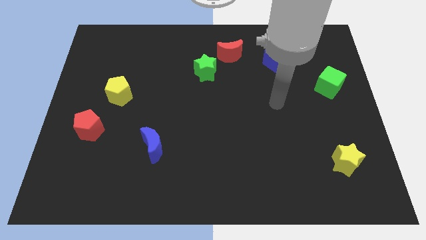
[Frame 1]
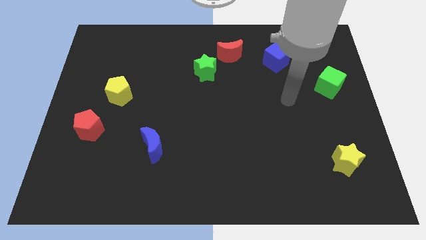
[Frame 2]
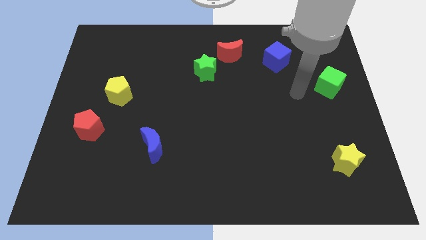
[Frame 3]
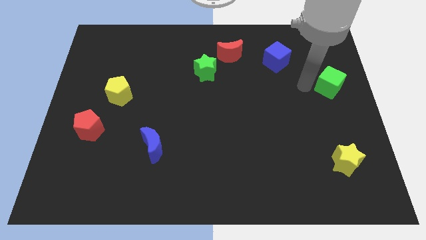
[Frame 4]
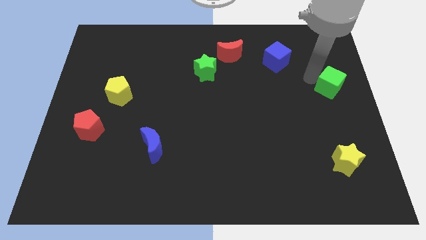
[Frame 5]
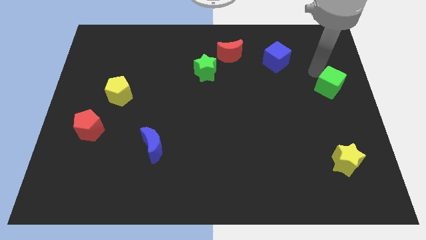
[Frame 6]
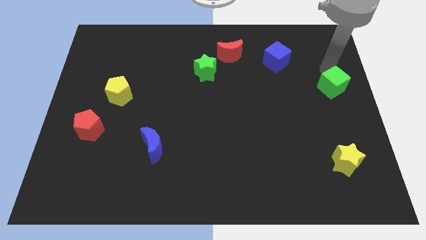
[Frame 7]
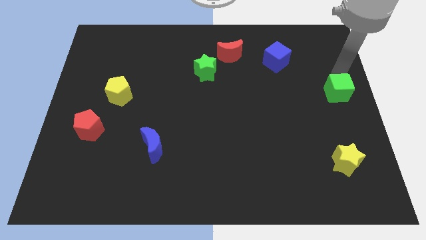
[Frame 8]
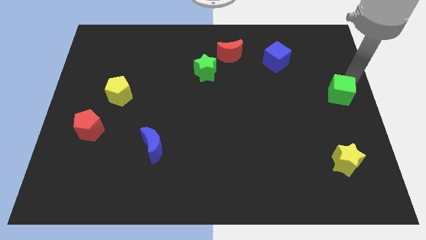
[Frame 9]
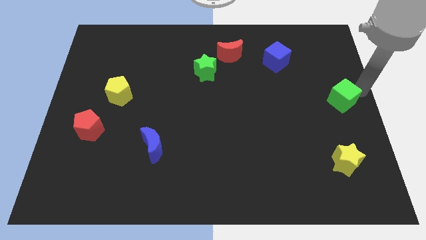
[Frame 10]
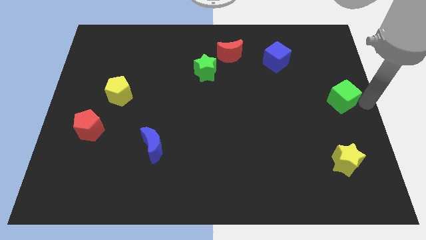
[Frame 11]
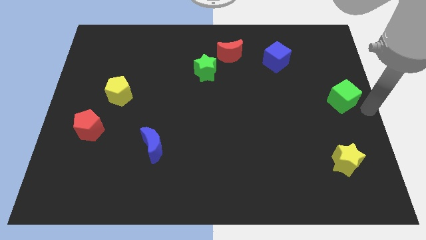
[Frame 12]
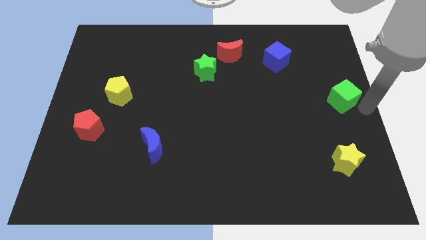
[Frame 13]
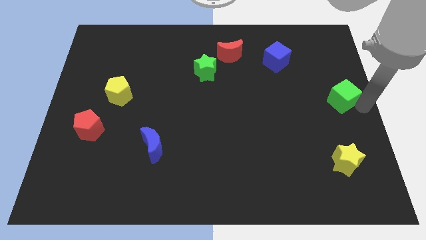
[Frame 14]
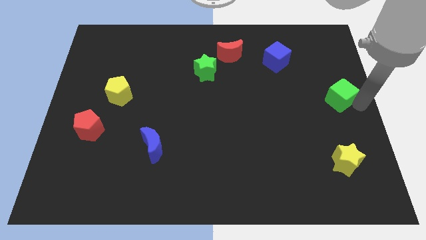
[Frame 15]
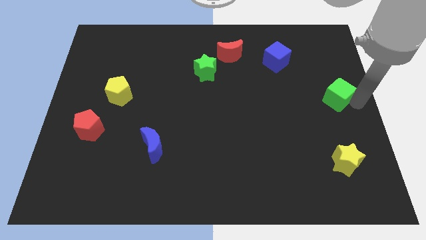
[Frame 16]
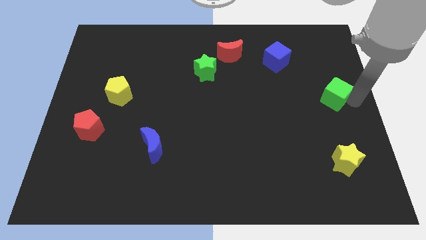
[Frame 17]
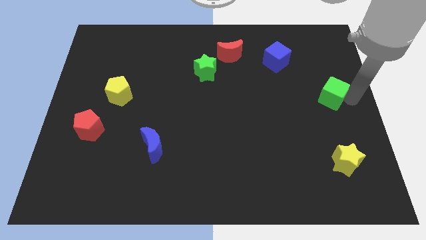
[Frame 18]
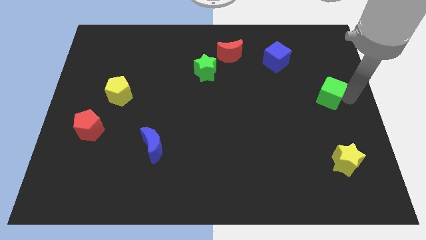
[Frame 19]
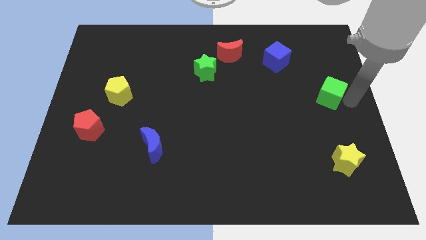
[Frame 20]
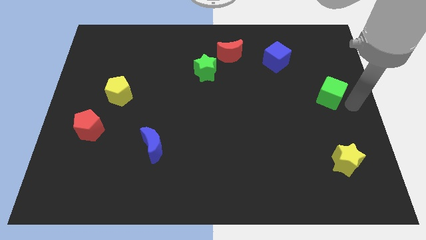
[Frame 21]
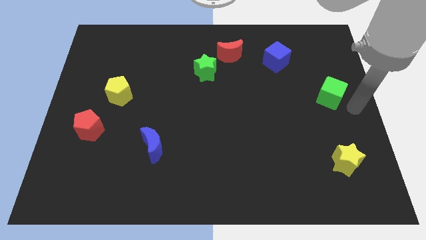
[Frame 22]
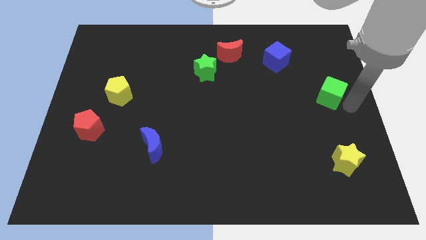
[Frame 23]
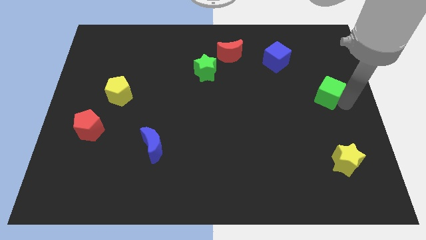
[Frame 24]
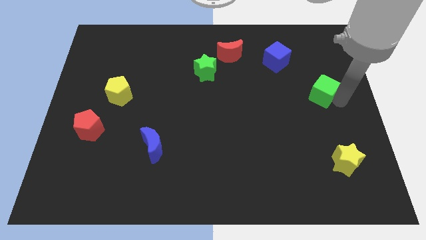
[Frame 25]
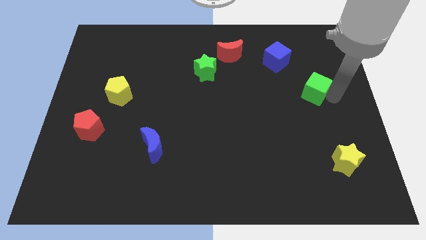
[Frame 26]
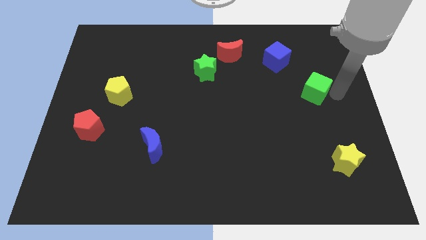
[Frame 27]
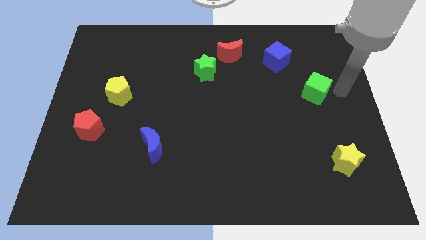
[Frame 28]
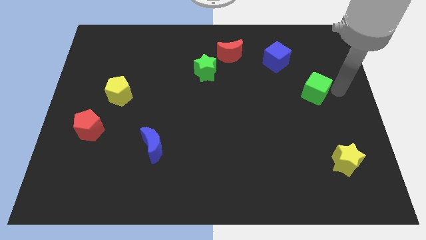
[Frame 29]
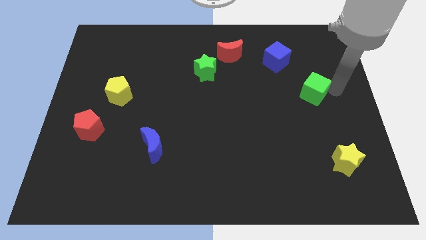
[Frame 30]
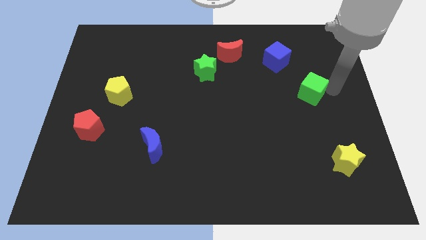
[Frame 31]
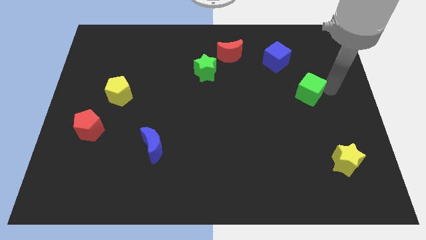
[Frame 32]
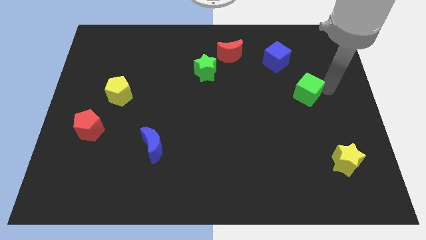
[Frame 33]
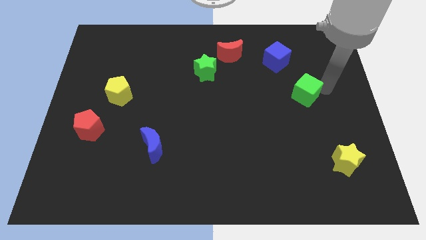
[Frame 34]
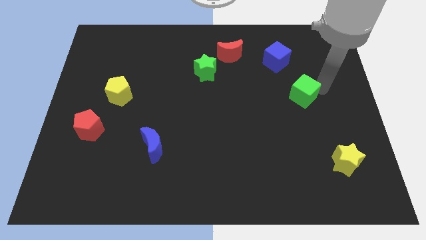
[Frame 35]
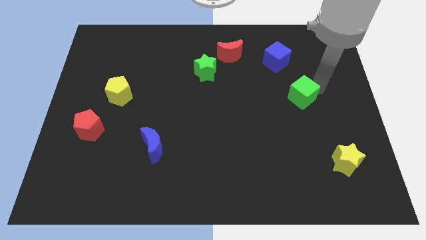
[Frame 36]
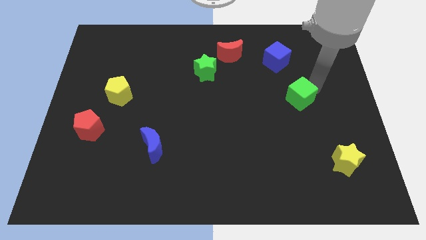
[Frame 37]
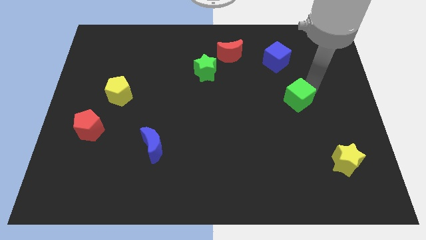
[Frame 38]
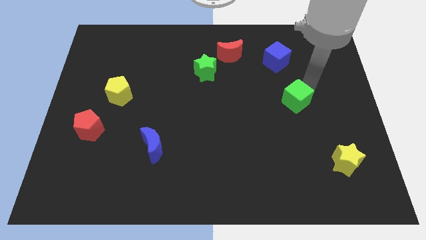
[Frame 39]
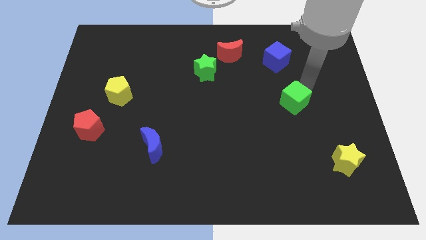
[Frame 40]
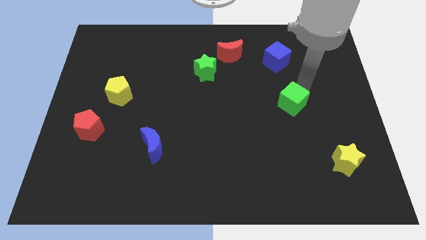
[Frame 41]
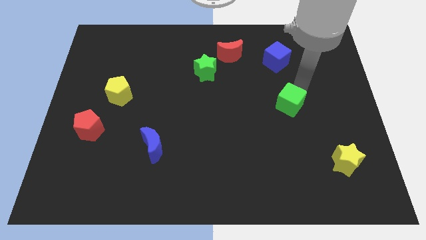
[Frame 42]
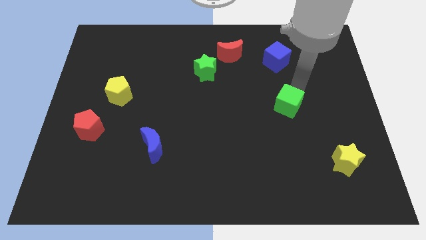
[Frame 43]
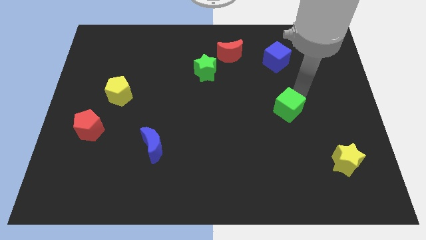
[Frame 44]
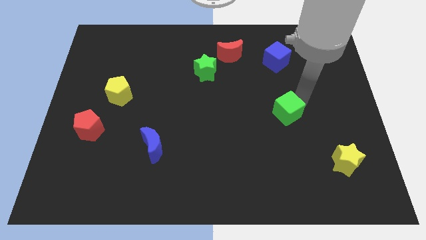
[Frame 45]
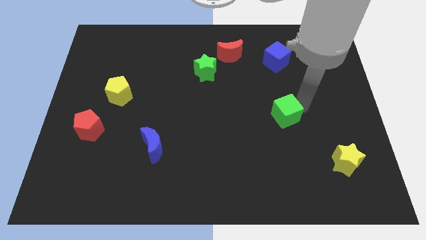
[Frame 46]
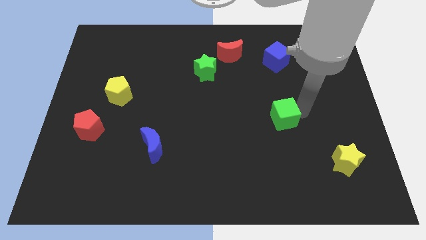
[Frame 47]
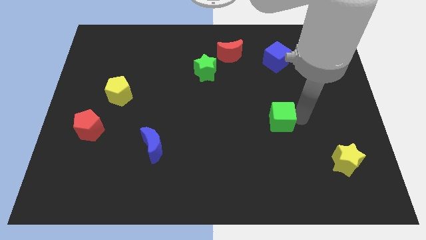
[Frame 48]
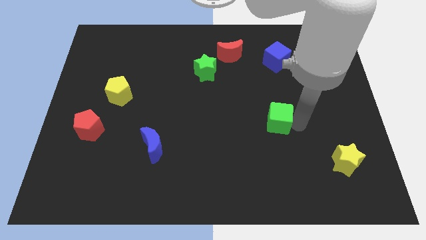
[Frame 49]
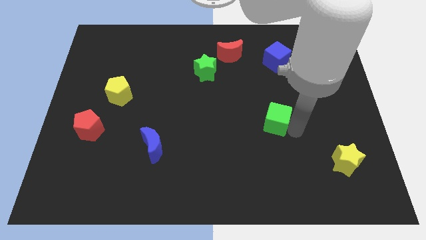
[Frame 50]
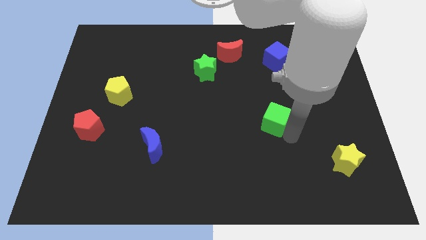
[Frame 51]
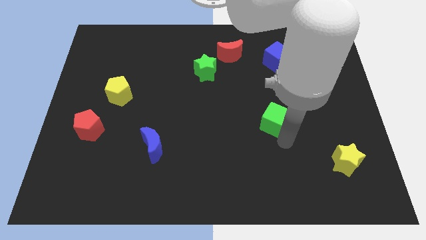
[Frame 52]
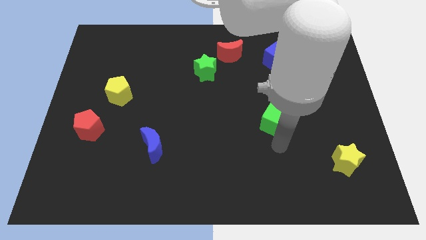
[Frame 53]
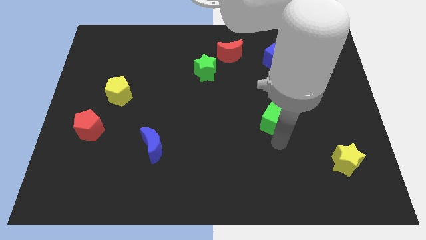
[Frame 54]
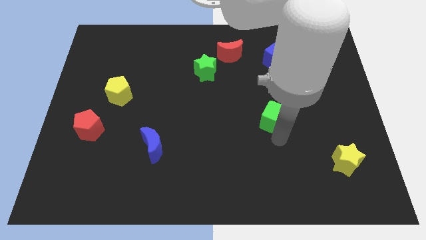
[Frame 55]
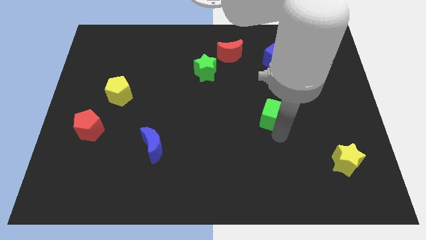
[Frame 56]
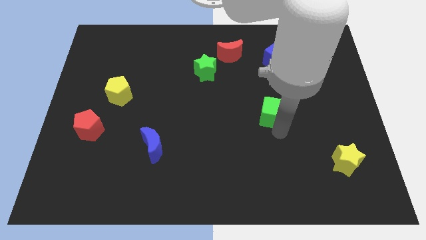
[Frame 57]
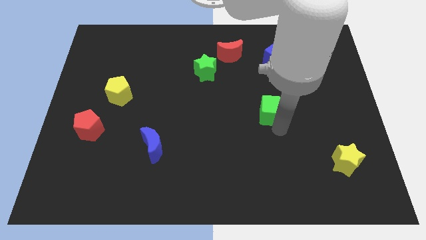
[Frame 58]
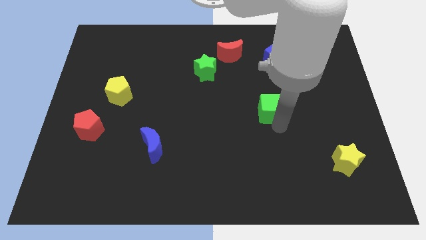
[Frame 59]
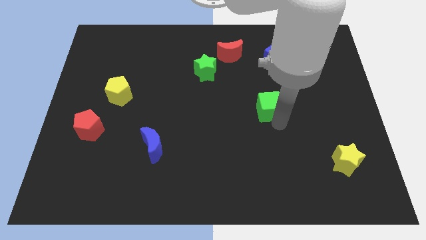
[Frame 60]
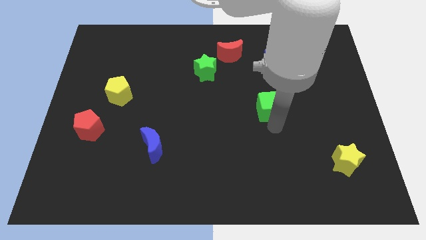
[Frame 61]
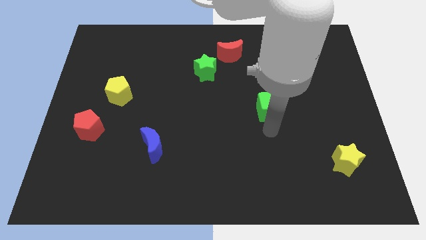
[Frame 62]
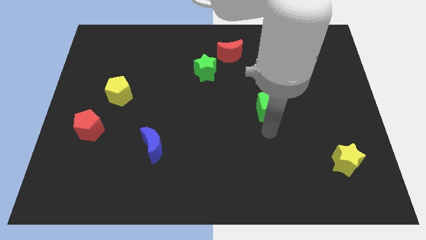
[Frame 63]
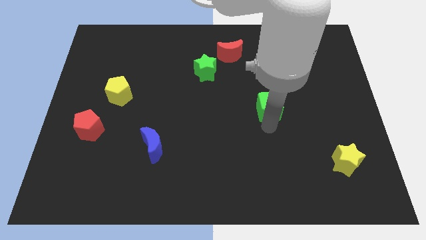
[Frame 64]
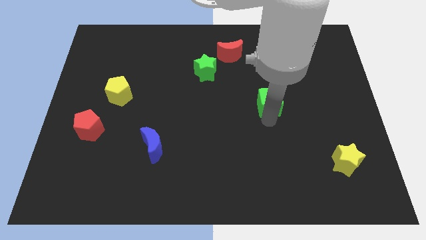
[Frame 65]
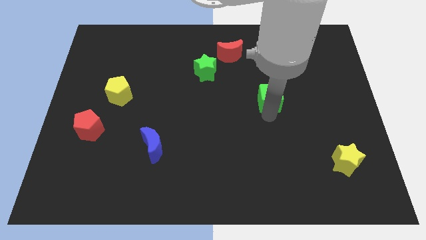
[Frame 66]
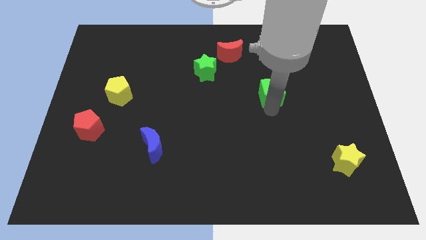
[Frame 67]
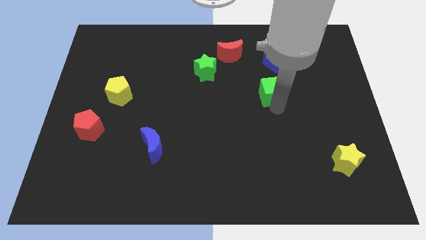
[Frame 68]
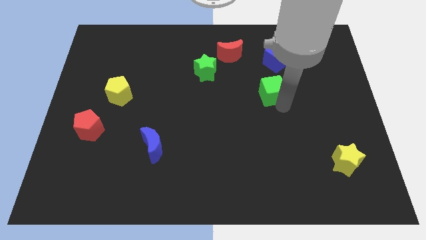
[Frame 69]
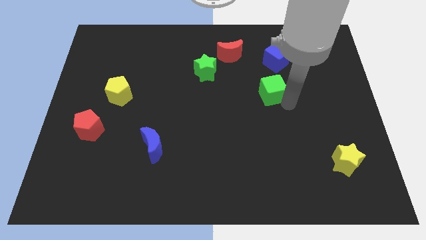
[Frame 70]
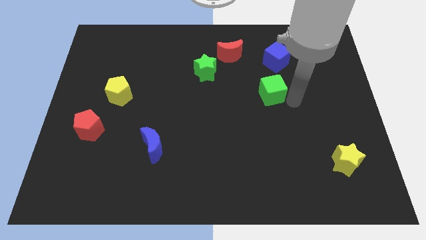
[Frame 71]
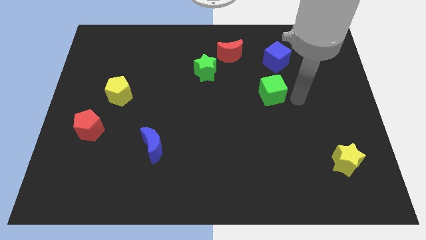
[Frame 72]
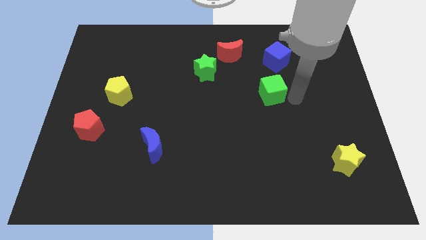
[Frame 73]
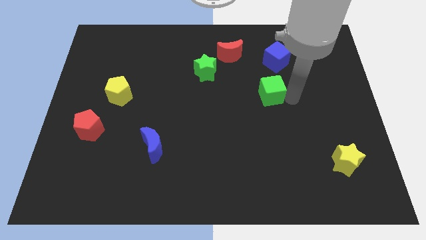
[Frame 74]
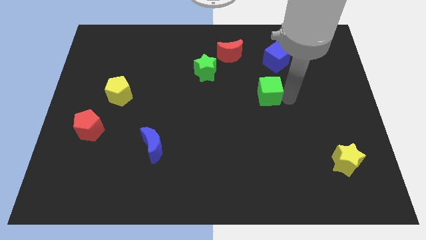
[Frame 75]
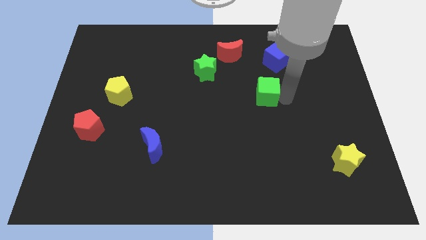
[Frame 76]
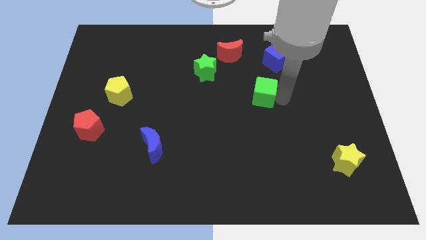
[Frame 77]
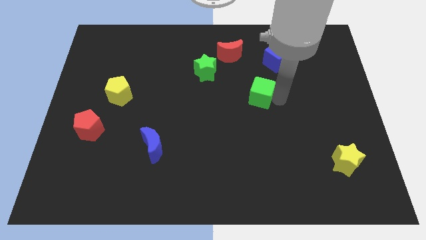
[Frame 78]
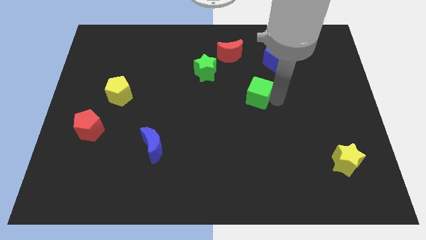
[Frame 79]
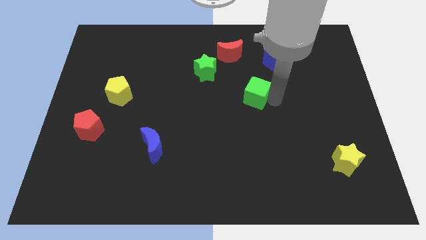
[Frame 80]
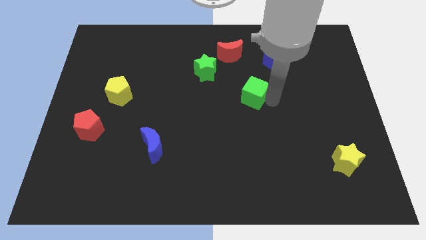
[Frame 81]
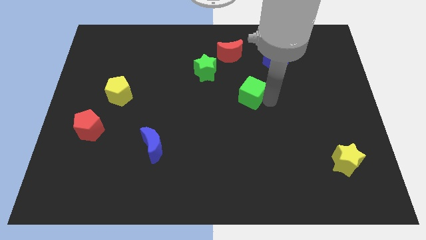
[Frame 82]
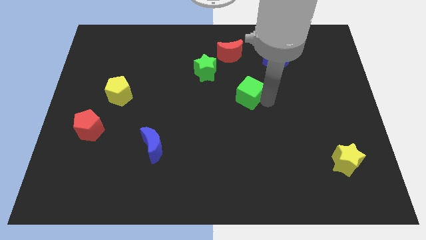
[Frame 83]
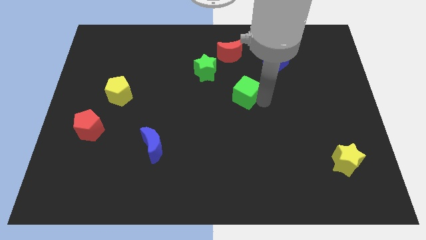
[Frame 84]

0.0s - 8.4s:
push the green cube to the left

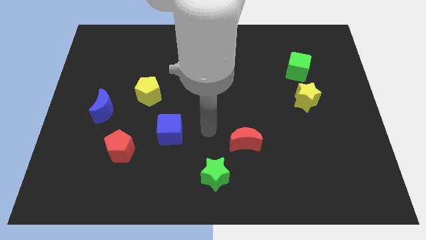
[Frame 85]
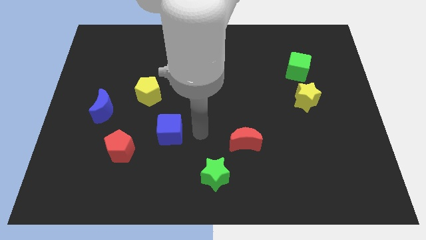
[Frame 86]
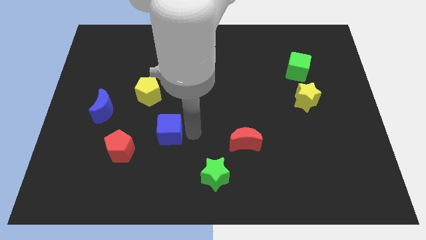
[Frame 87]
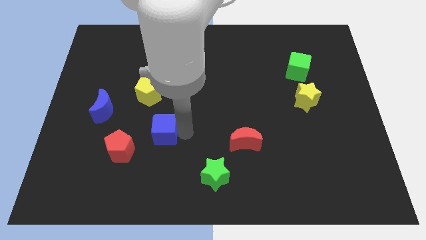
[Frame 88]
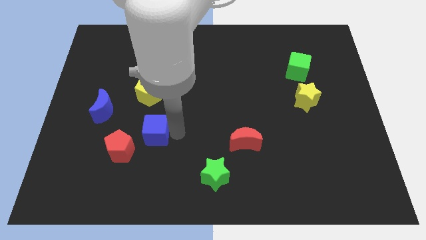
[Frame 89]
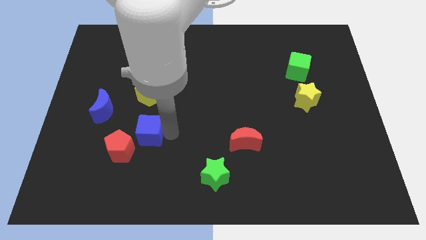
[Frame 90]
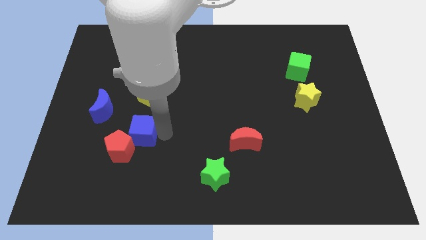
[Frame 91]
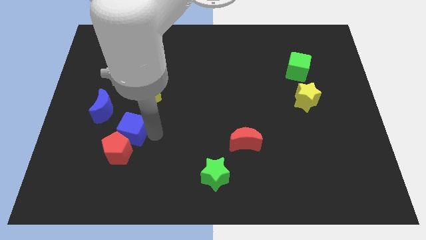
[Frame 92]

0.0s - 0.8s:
slightly push the blue cube to the left
